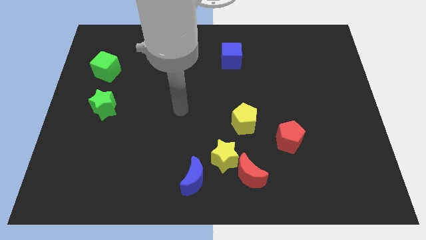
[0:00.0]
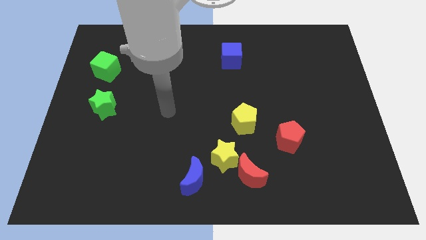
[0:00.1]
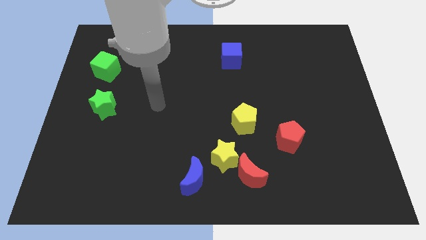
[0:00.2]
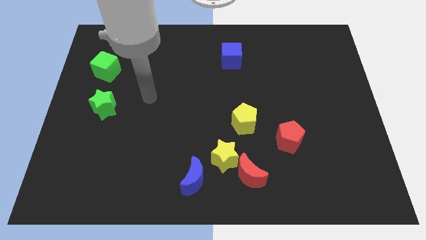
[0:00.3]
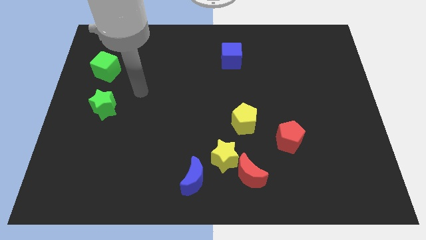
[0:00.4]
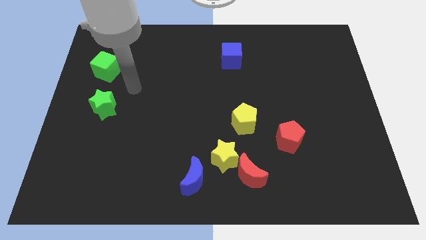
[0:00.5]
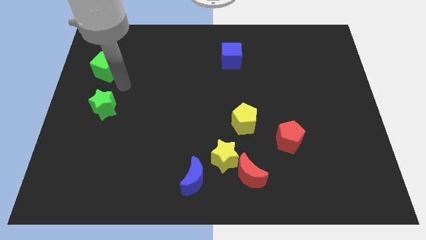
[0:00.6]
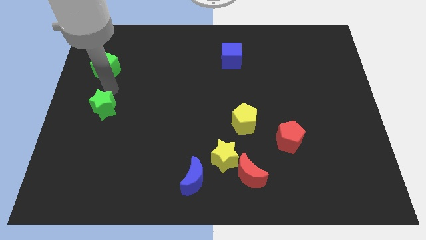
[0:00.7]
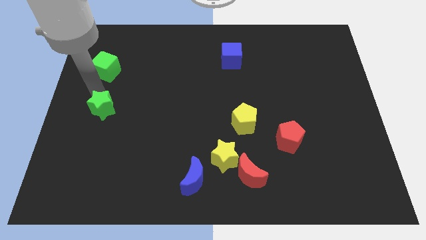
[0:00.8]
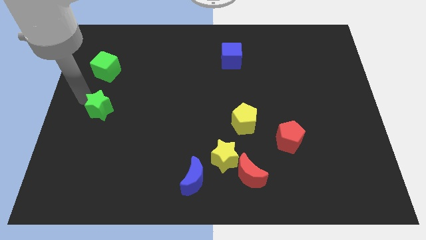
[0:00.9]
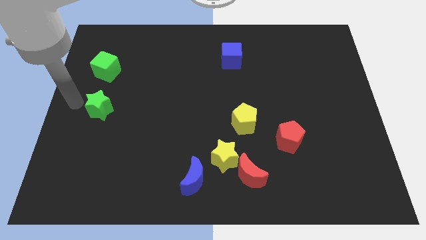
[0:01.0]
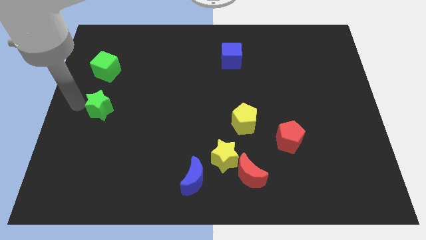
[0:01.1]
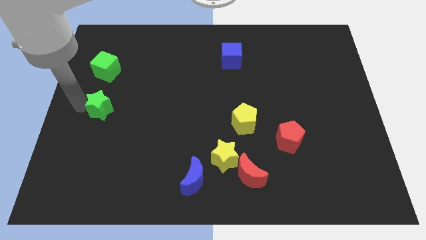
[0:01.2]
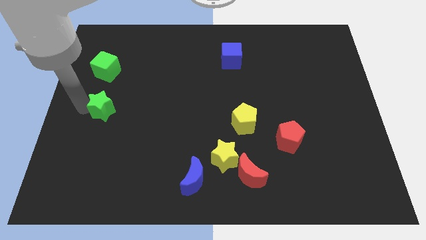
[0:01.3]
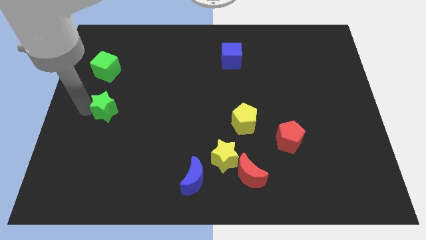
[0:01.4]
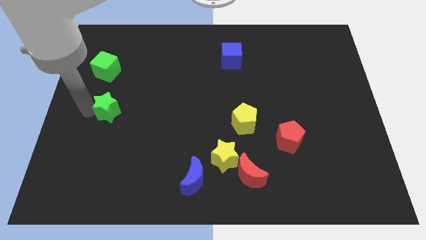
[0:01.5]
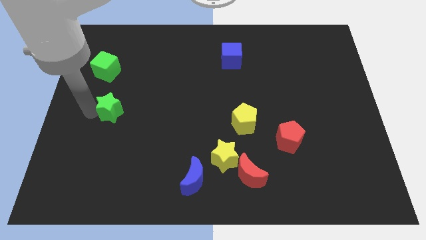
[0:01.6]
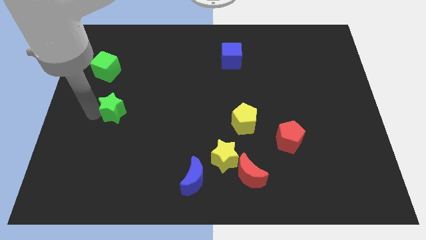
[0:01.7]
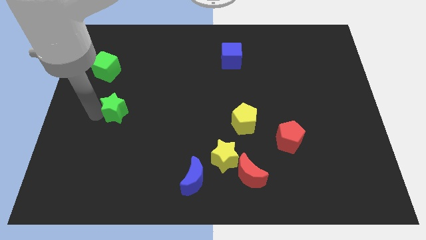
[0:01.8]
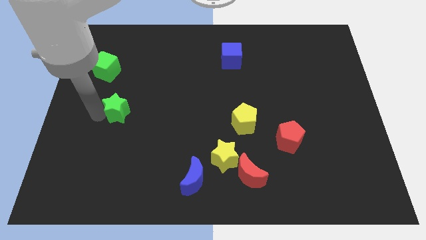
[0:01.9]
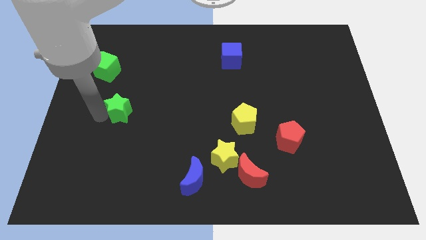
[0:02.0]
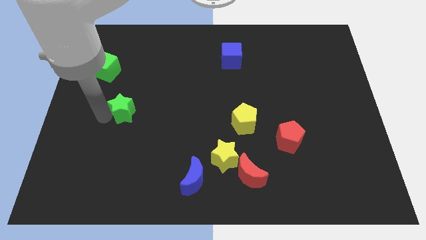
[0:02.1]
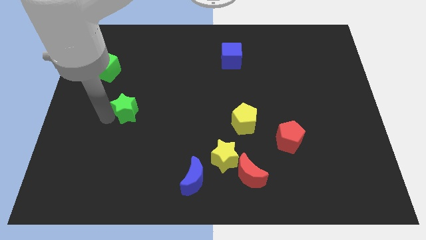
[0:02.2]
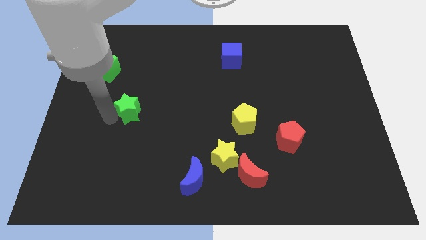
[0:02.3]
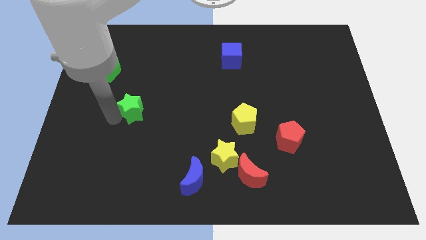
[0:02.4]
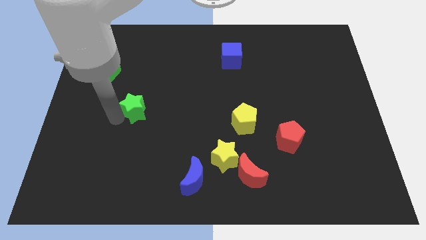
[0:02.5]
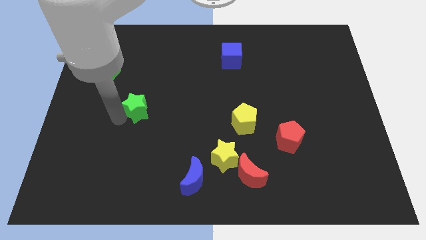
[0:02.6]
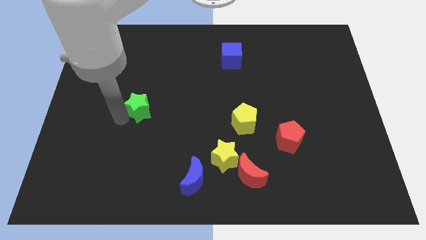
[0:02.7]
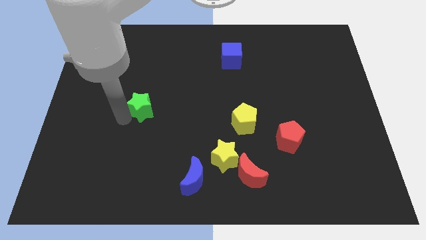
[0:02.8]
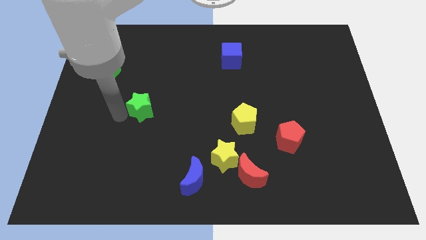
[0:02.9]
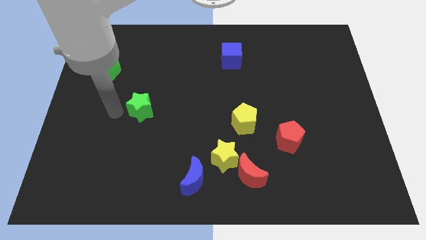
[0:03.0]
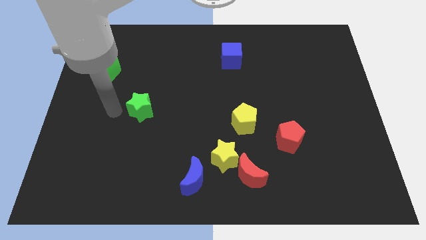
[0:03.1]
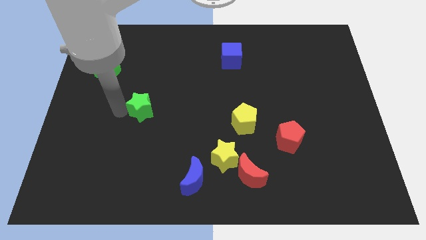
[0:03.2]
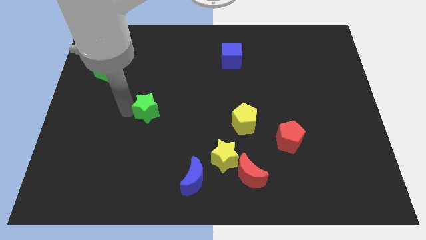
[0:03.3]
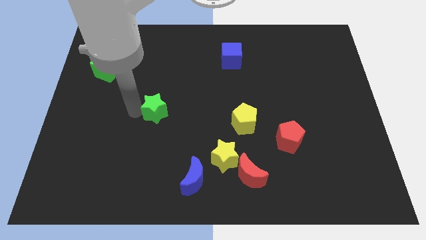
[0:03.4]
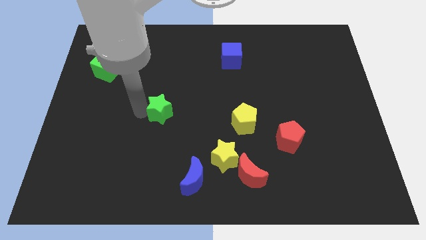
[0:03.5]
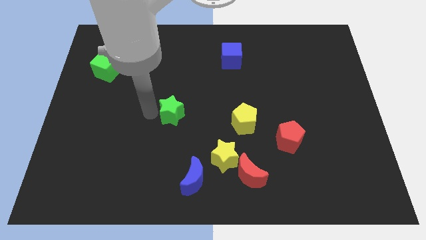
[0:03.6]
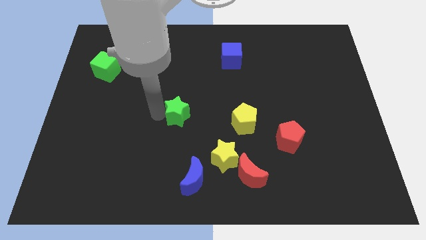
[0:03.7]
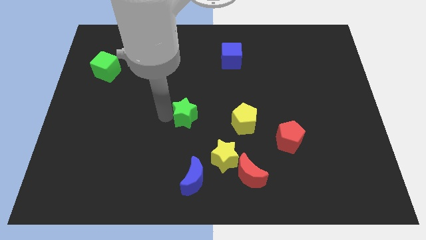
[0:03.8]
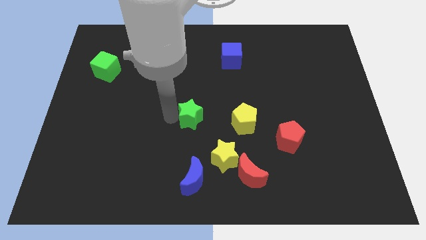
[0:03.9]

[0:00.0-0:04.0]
slide the green star to the right

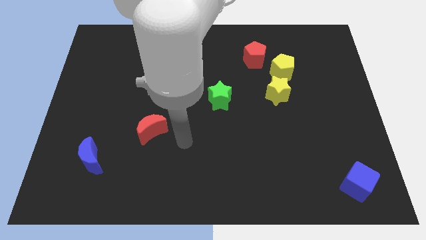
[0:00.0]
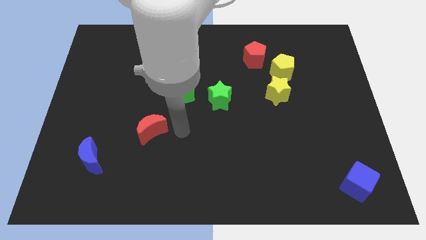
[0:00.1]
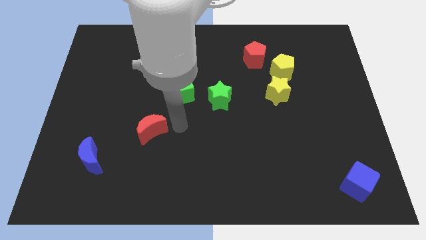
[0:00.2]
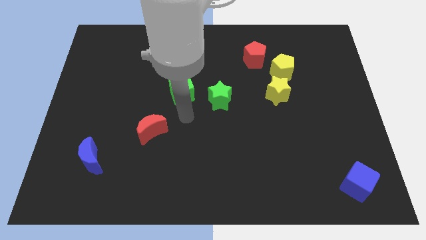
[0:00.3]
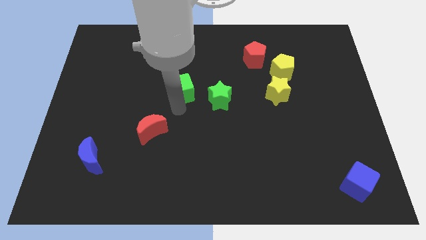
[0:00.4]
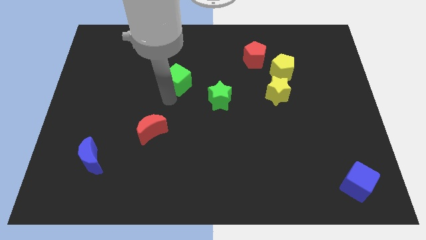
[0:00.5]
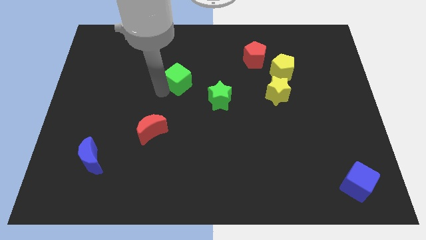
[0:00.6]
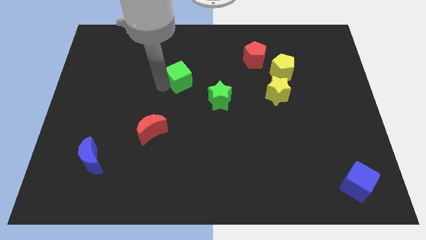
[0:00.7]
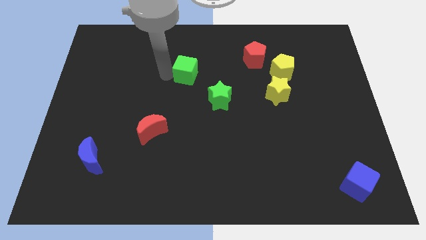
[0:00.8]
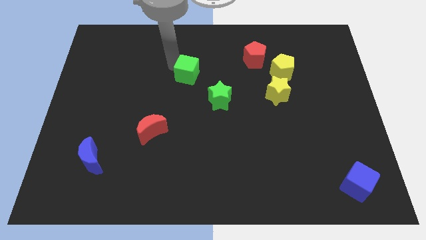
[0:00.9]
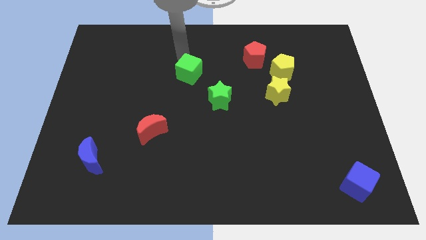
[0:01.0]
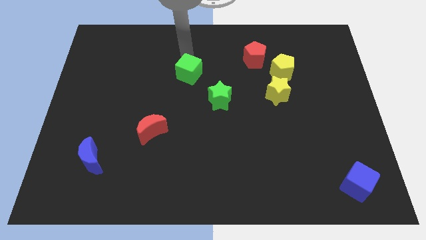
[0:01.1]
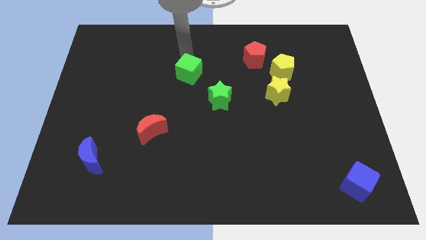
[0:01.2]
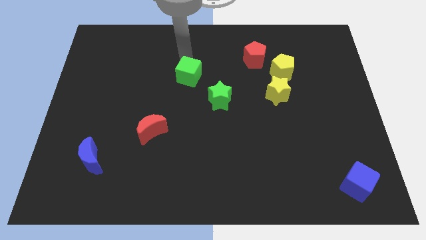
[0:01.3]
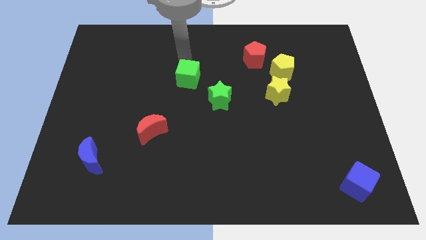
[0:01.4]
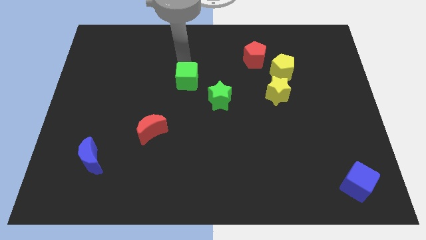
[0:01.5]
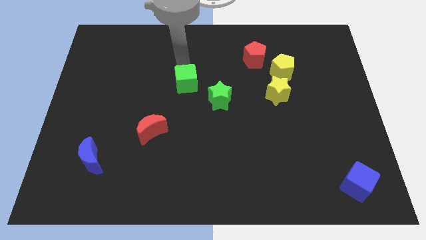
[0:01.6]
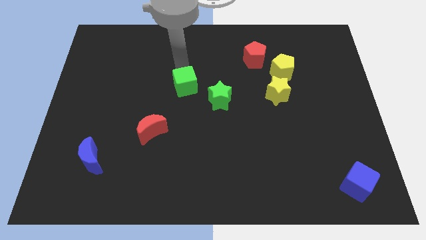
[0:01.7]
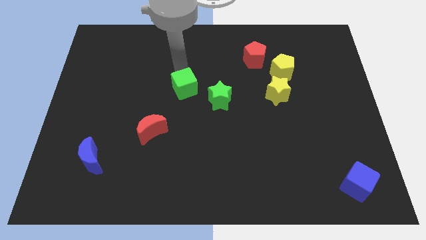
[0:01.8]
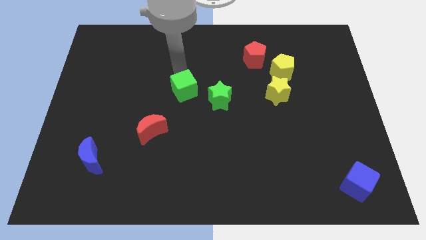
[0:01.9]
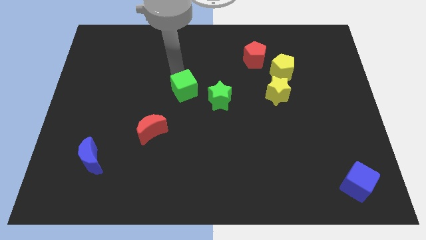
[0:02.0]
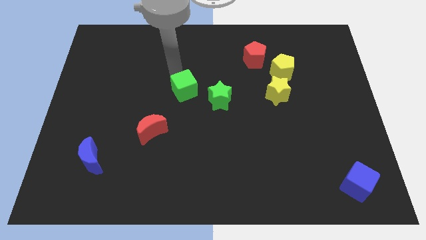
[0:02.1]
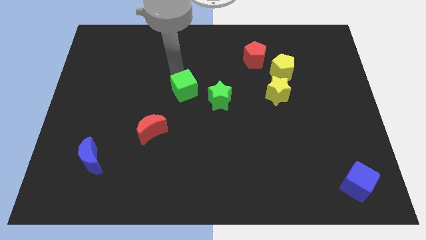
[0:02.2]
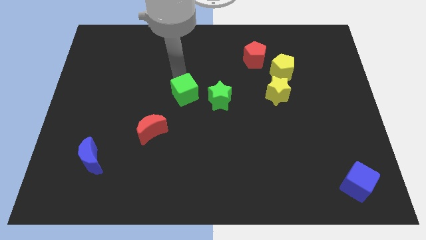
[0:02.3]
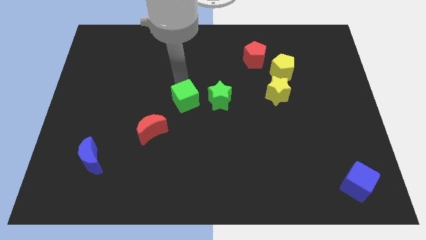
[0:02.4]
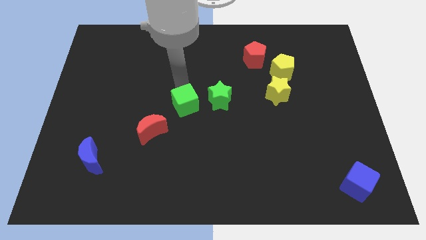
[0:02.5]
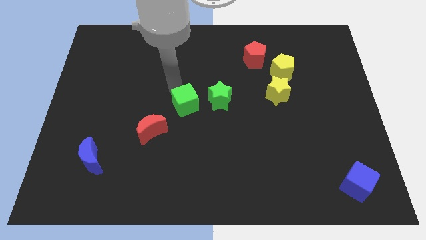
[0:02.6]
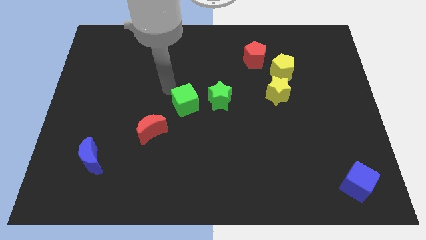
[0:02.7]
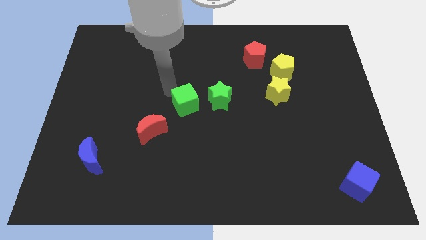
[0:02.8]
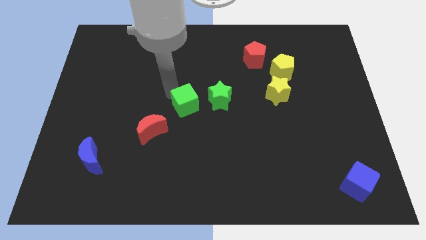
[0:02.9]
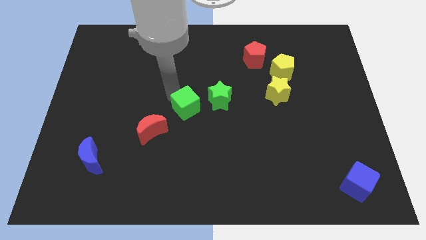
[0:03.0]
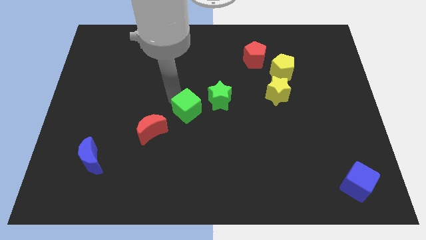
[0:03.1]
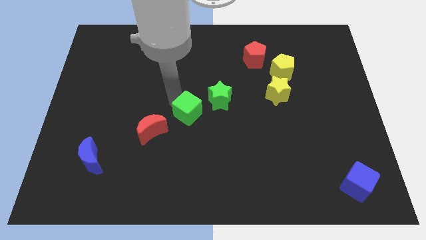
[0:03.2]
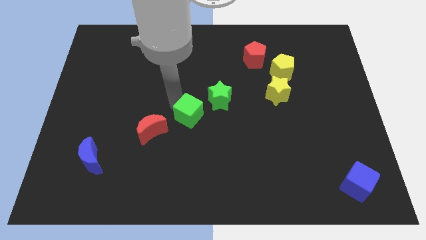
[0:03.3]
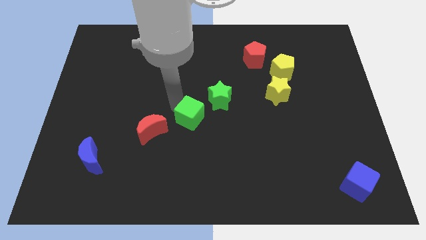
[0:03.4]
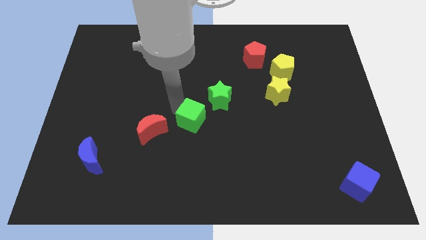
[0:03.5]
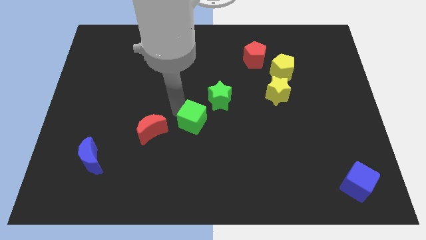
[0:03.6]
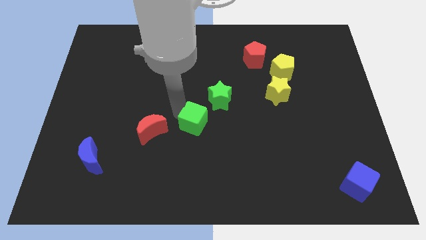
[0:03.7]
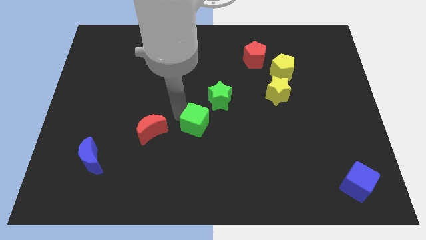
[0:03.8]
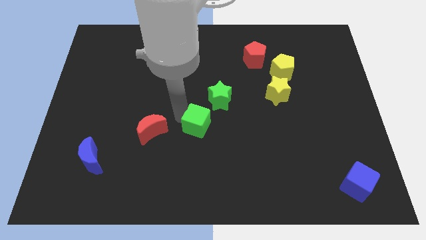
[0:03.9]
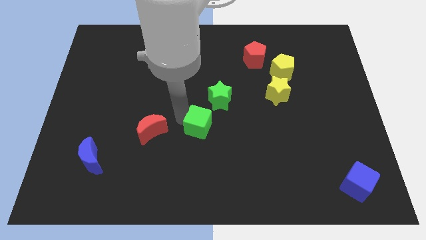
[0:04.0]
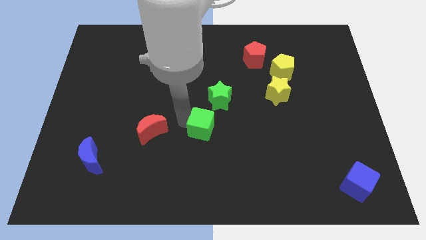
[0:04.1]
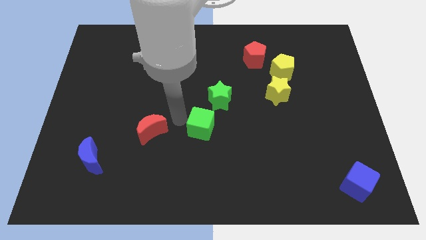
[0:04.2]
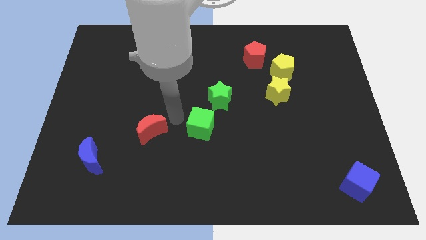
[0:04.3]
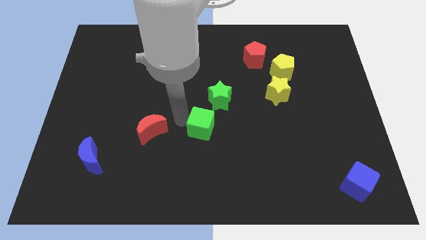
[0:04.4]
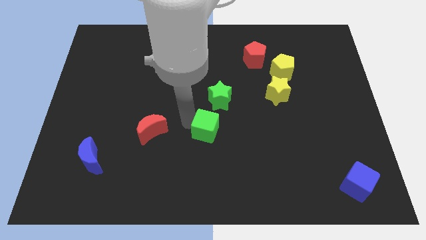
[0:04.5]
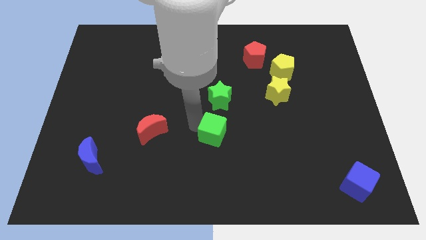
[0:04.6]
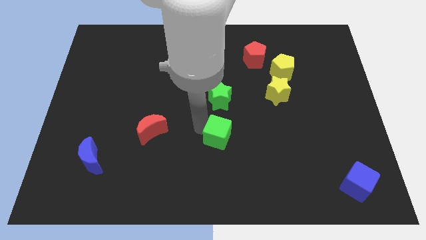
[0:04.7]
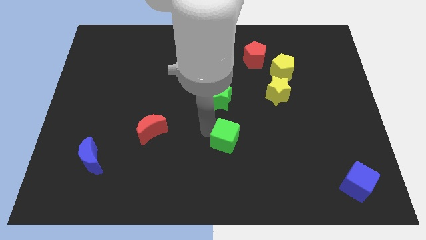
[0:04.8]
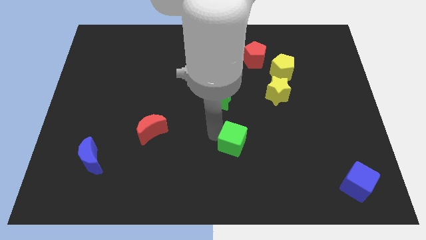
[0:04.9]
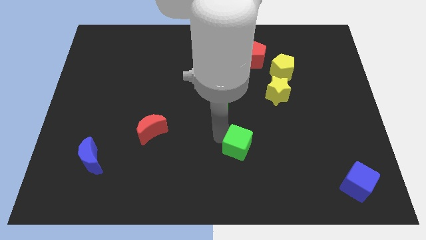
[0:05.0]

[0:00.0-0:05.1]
push the green cube downwards and then right
